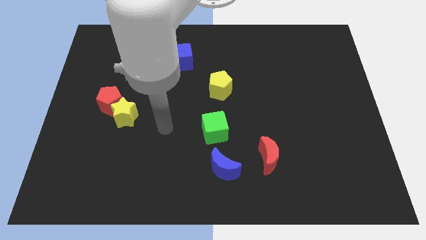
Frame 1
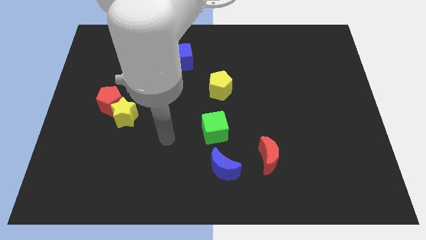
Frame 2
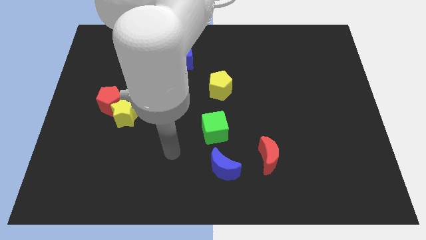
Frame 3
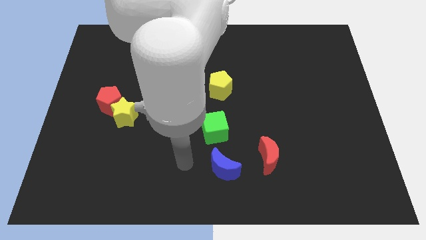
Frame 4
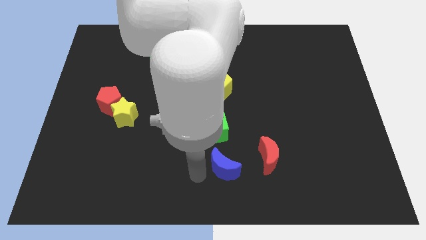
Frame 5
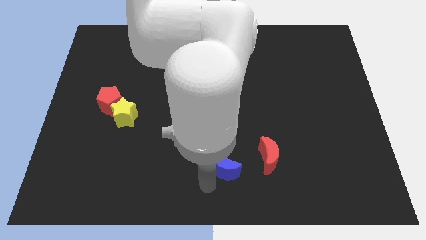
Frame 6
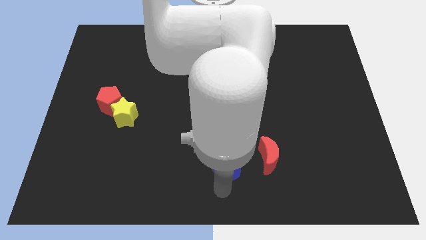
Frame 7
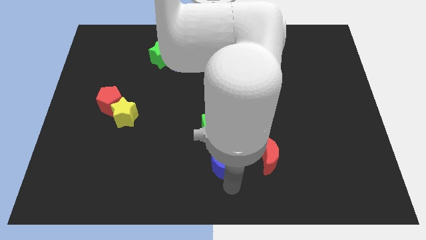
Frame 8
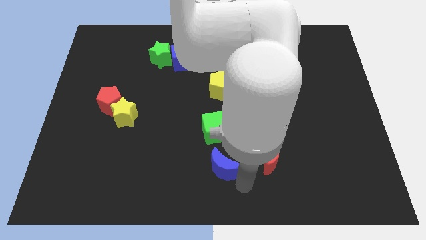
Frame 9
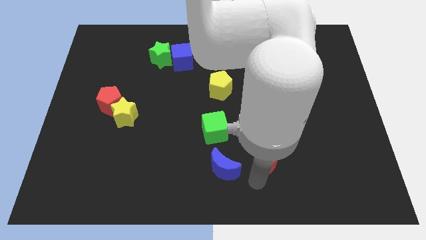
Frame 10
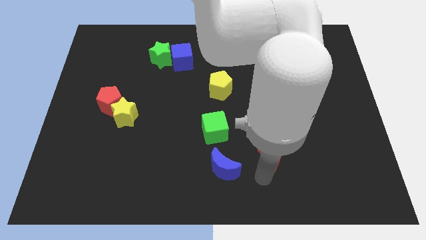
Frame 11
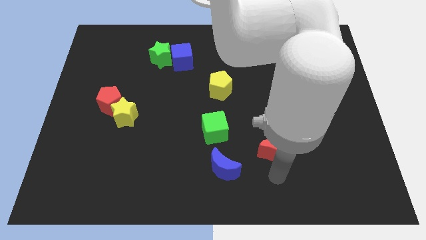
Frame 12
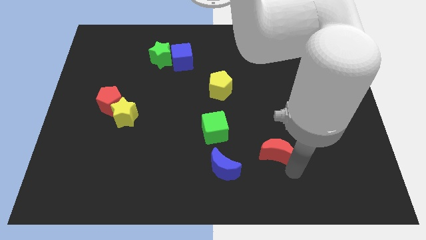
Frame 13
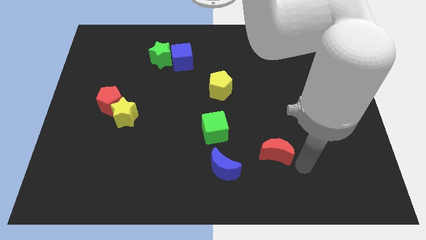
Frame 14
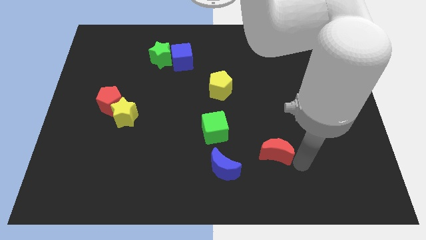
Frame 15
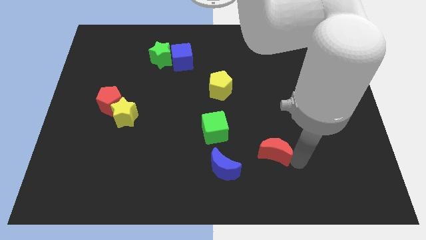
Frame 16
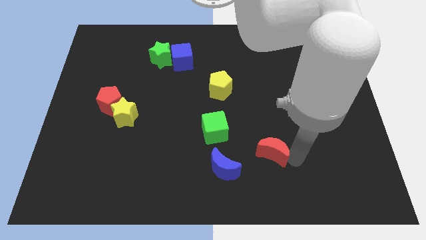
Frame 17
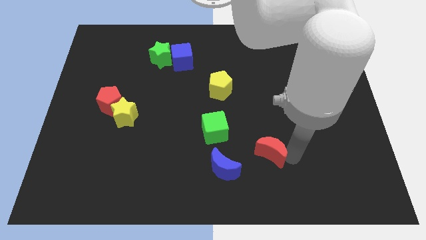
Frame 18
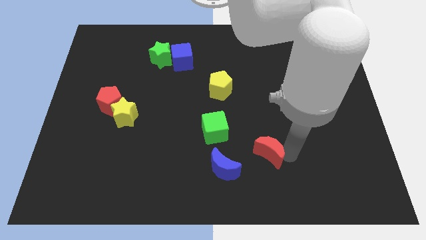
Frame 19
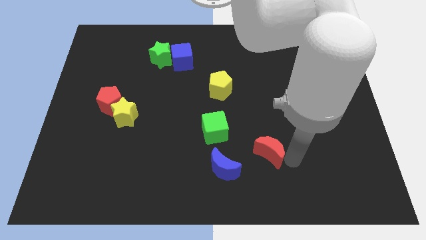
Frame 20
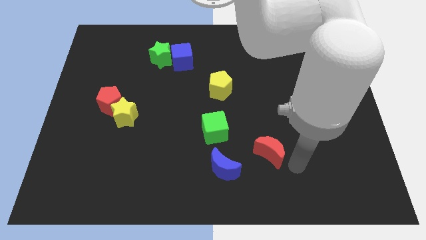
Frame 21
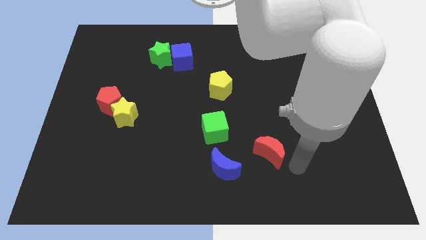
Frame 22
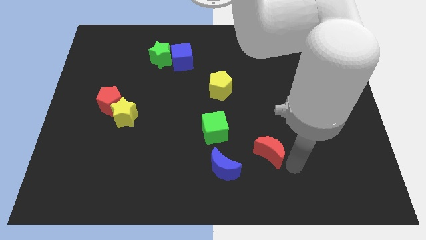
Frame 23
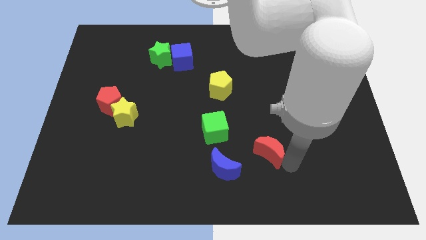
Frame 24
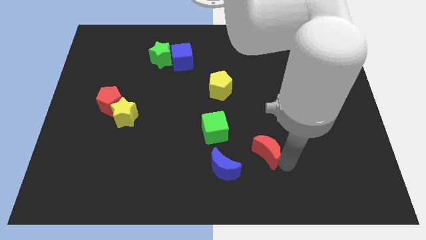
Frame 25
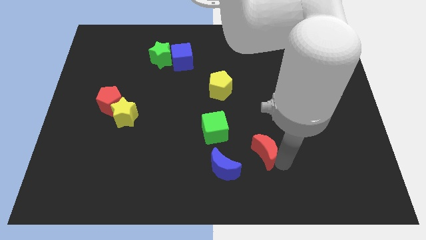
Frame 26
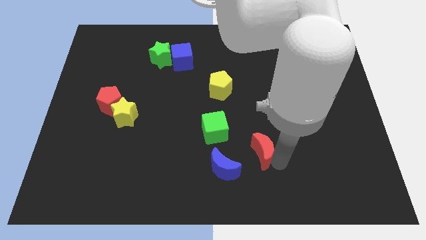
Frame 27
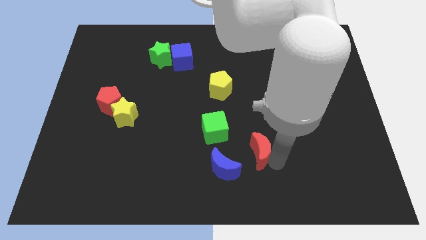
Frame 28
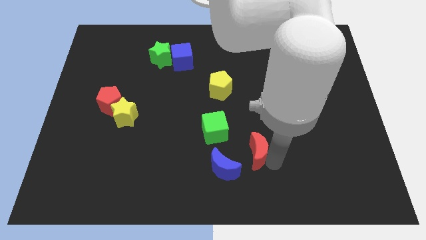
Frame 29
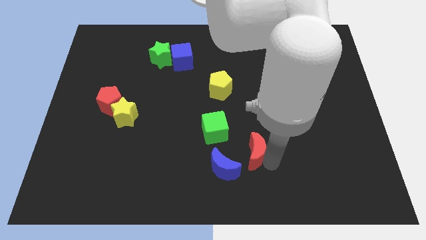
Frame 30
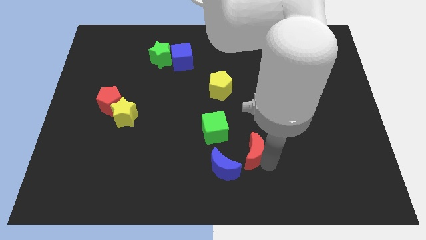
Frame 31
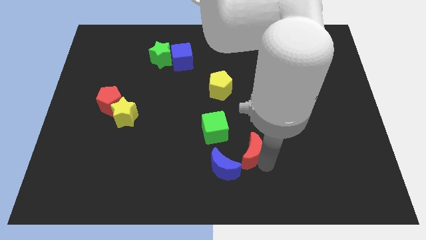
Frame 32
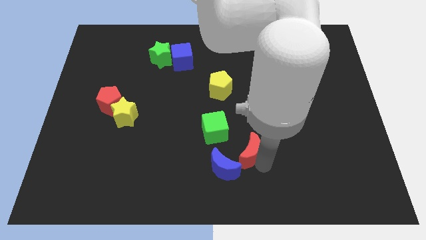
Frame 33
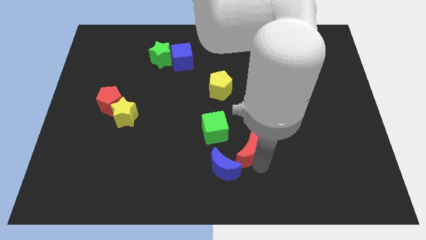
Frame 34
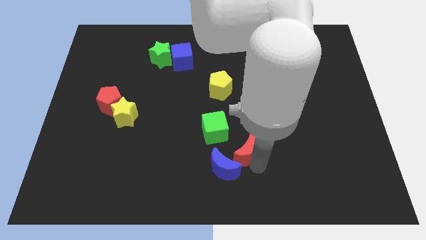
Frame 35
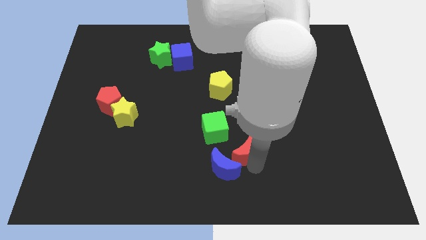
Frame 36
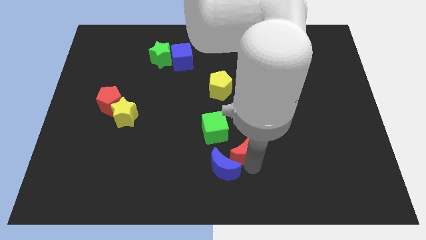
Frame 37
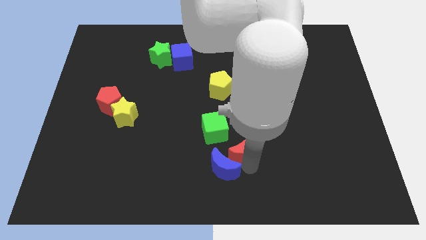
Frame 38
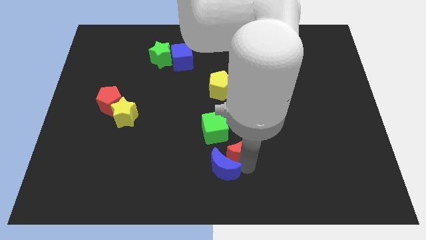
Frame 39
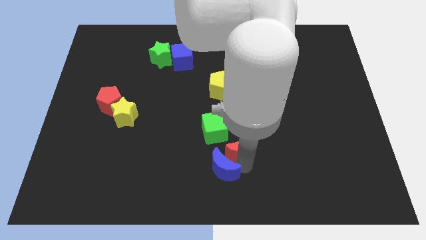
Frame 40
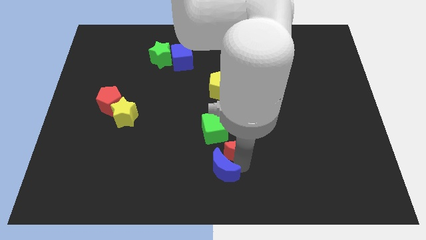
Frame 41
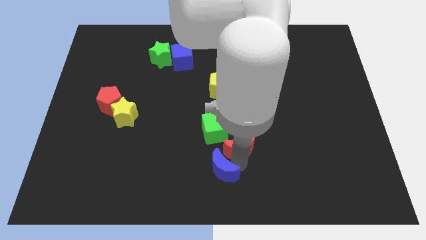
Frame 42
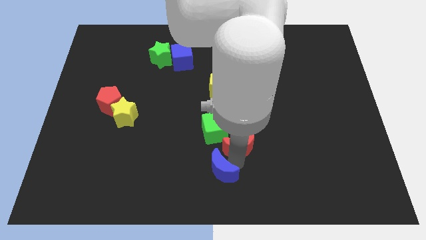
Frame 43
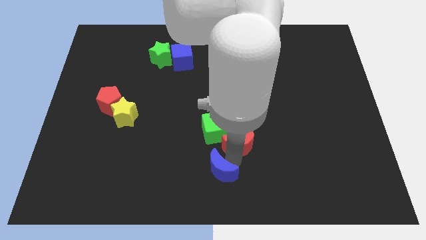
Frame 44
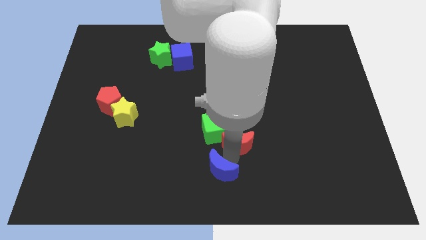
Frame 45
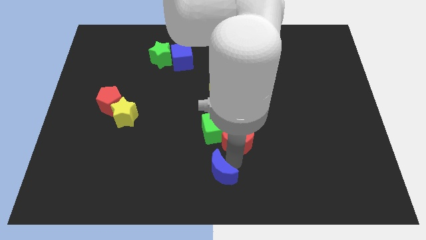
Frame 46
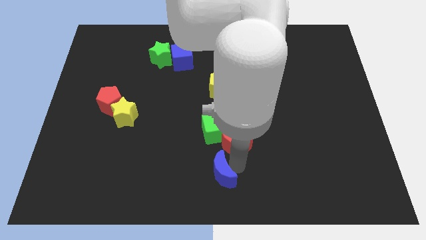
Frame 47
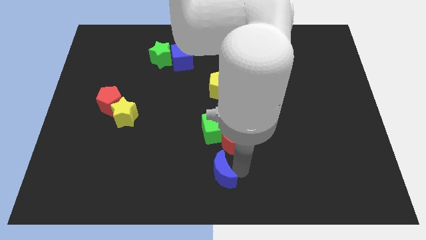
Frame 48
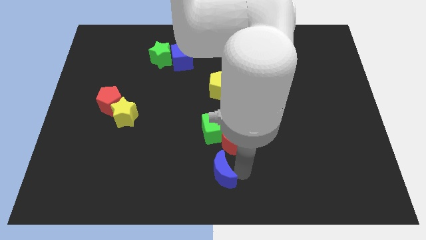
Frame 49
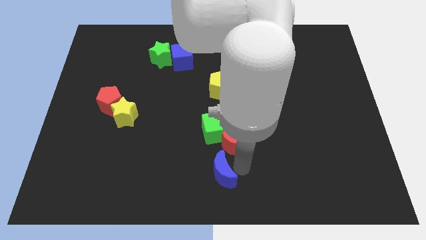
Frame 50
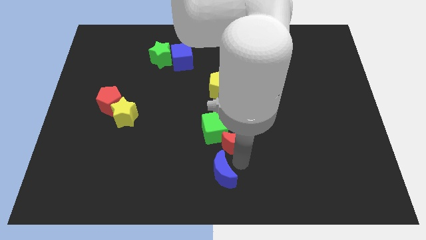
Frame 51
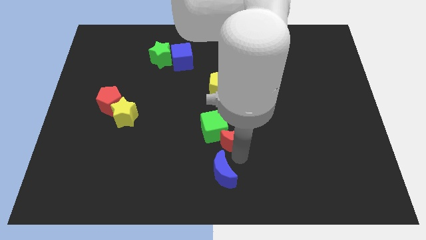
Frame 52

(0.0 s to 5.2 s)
push the red moon somewhat diagonally up and to the left

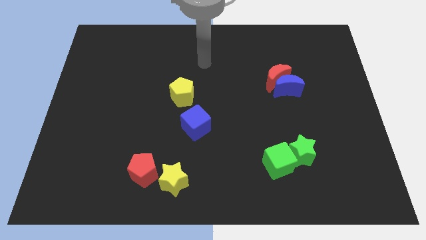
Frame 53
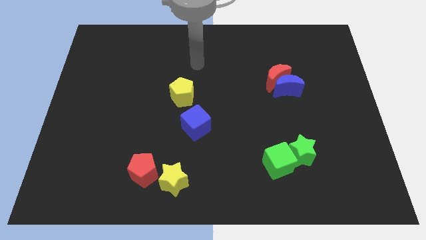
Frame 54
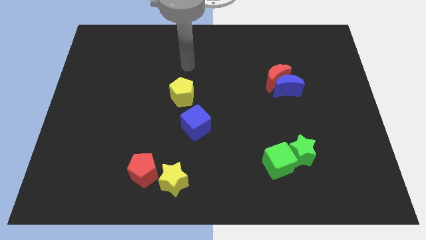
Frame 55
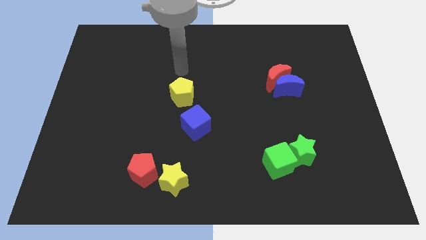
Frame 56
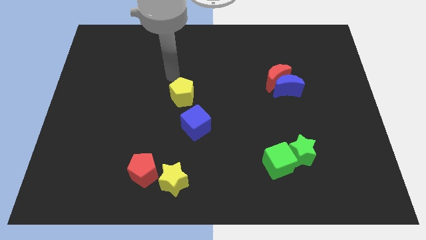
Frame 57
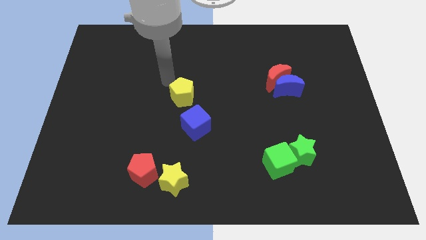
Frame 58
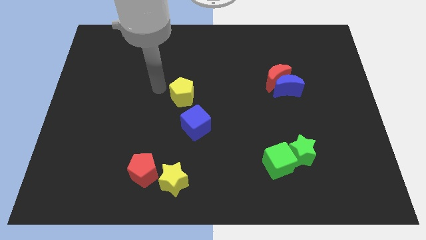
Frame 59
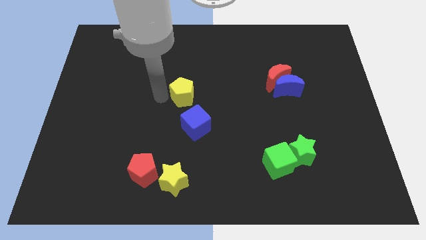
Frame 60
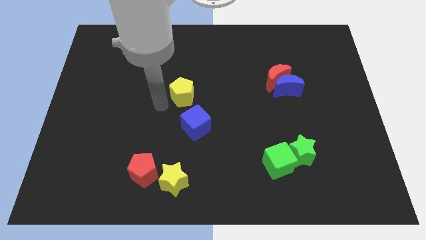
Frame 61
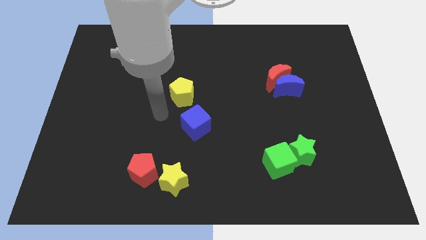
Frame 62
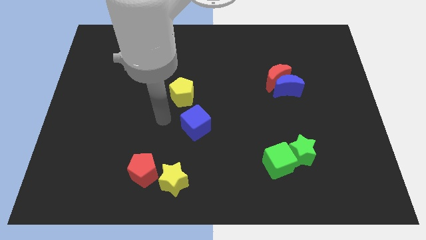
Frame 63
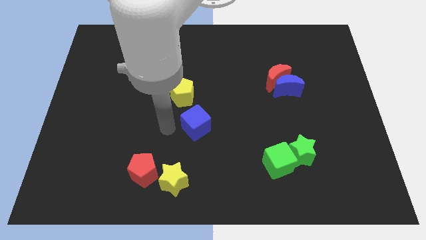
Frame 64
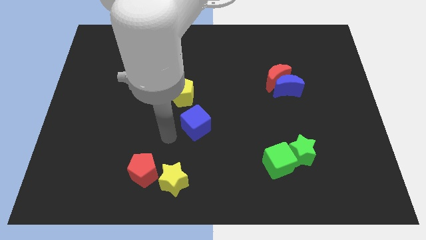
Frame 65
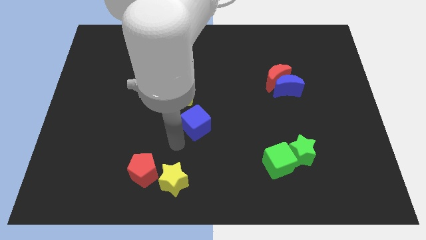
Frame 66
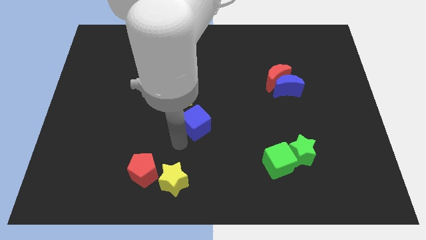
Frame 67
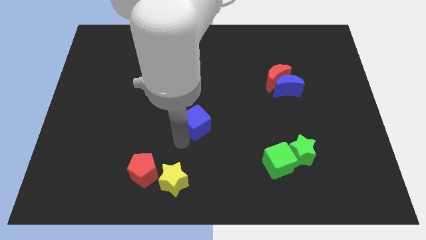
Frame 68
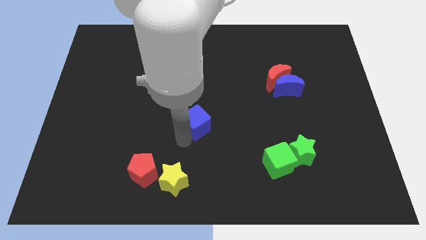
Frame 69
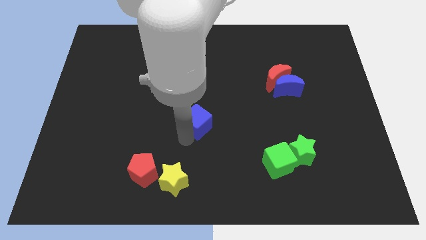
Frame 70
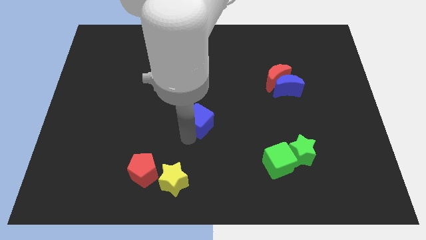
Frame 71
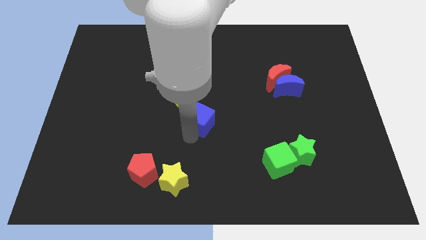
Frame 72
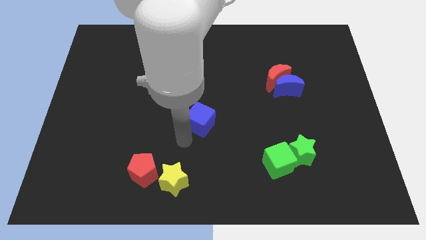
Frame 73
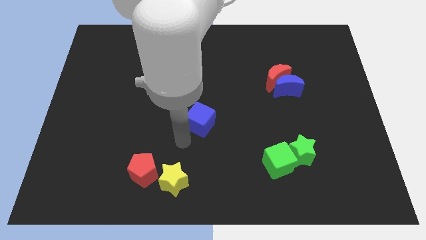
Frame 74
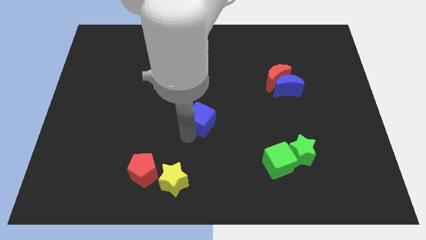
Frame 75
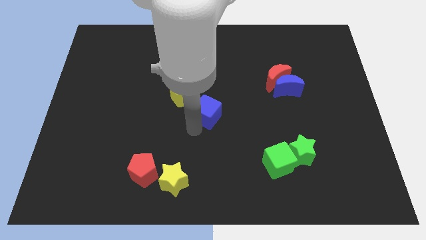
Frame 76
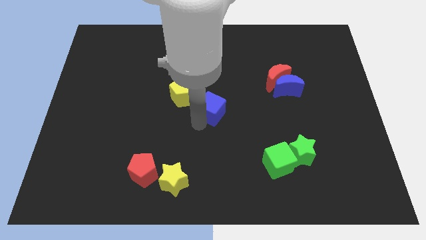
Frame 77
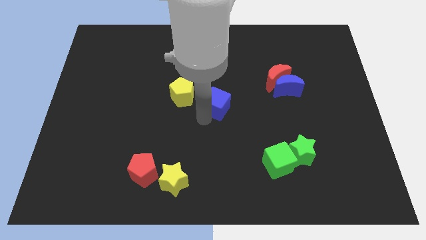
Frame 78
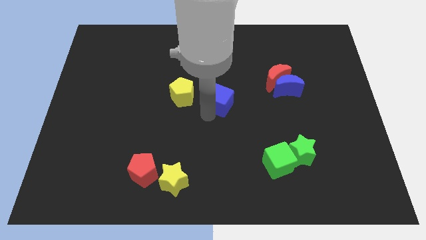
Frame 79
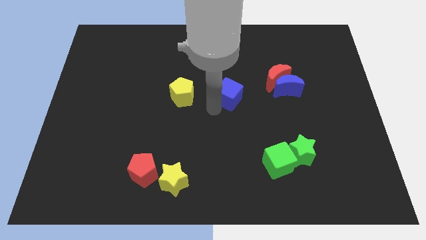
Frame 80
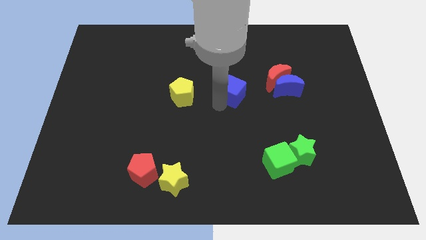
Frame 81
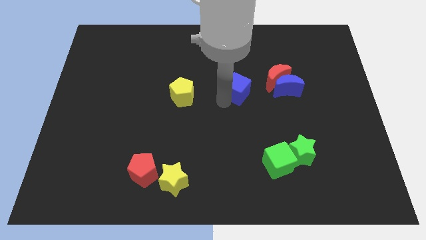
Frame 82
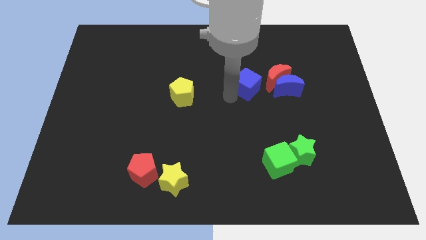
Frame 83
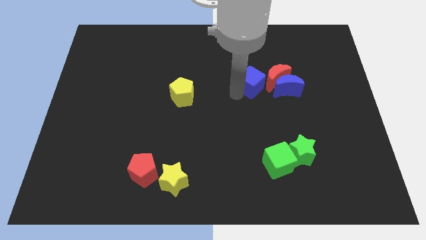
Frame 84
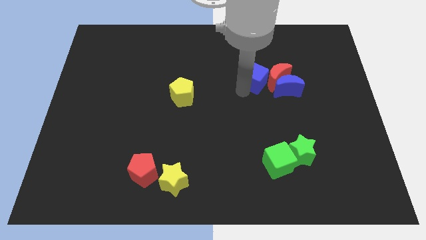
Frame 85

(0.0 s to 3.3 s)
push the blue cube diagonally up and right
